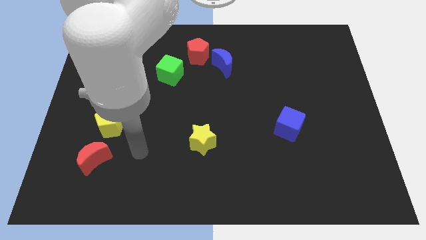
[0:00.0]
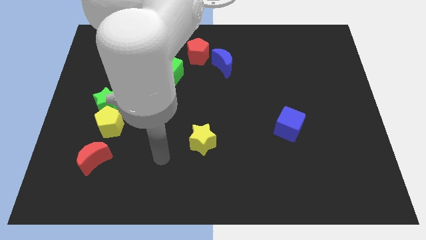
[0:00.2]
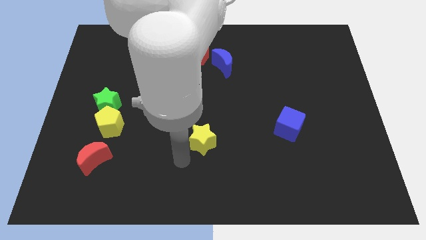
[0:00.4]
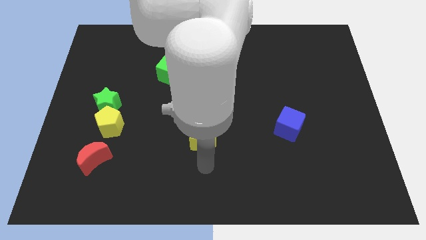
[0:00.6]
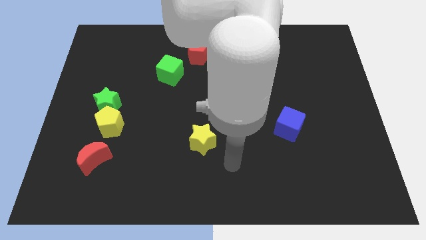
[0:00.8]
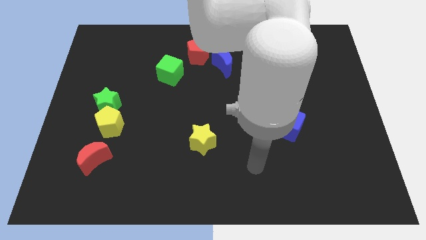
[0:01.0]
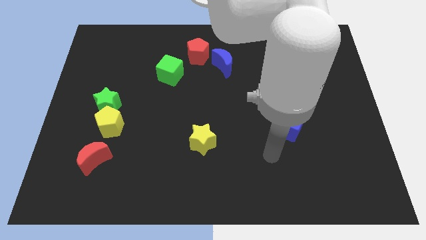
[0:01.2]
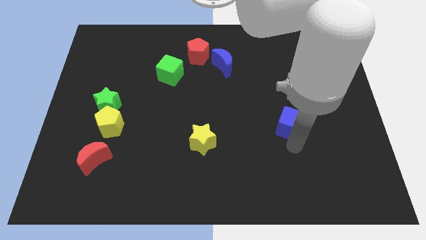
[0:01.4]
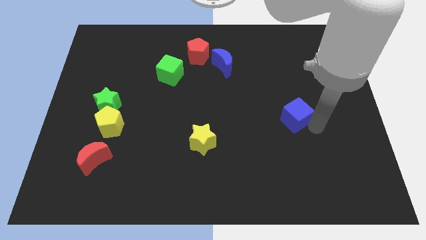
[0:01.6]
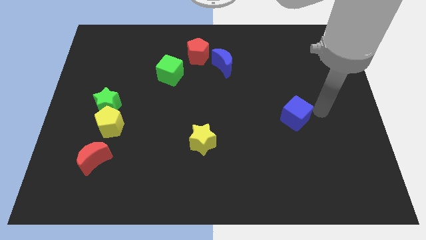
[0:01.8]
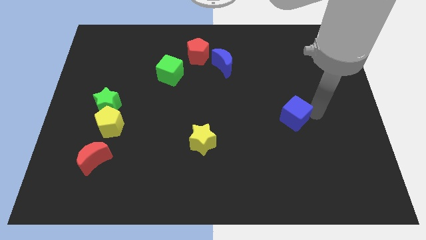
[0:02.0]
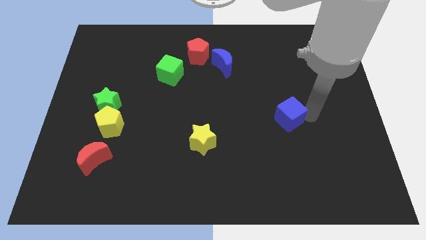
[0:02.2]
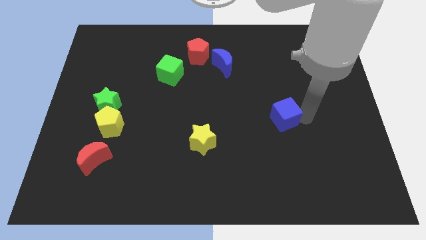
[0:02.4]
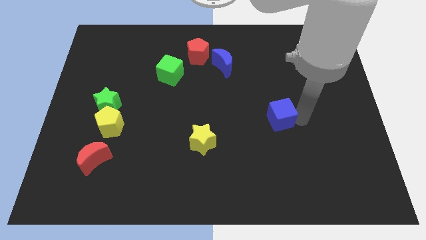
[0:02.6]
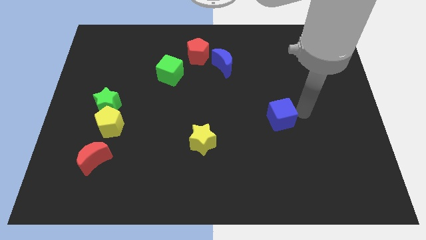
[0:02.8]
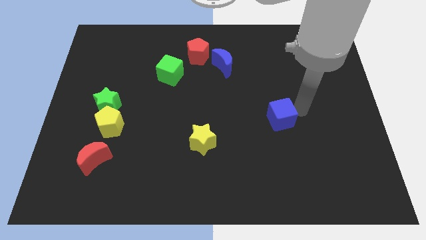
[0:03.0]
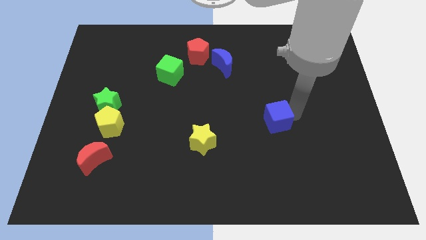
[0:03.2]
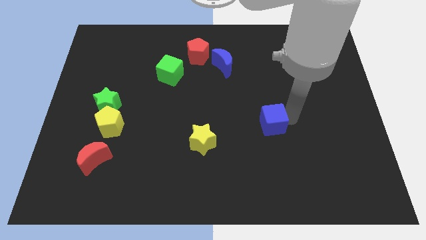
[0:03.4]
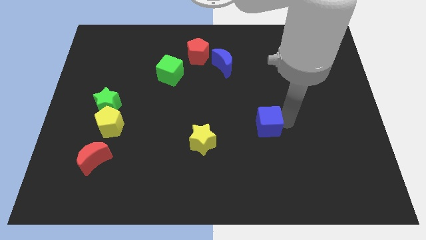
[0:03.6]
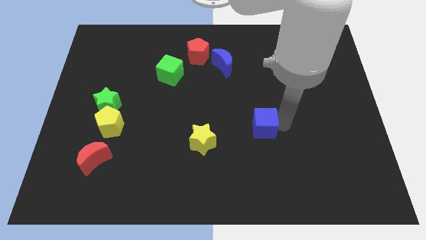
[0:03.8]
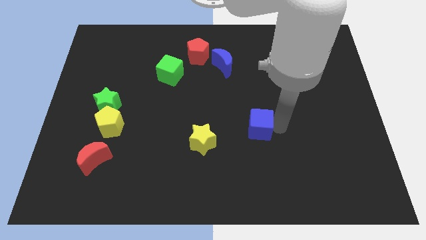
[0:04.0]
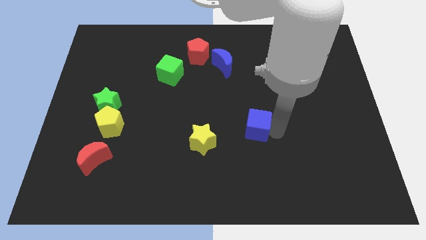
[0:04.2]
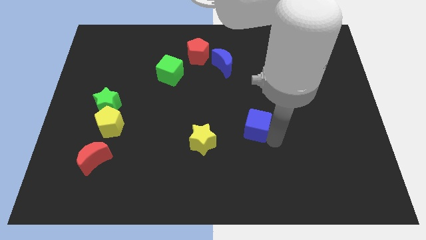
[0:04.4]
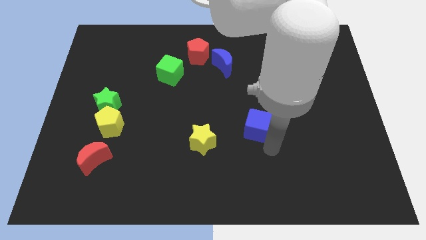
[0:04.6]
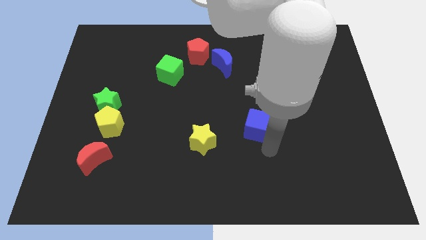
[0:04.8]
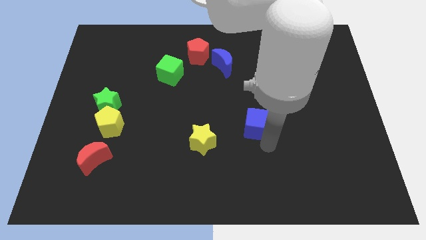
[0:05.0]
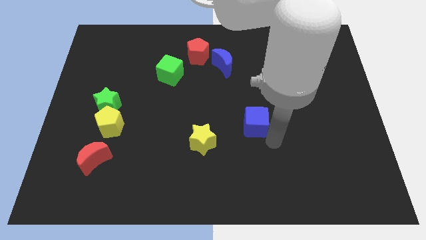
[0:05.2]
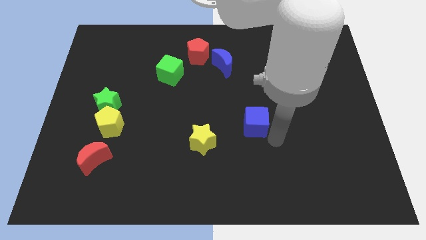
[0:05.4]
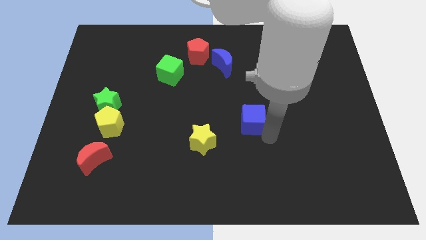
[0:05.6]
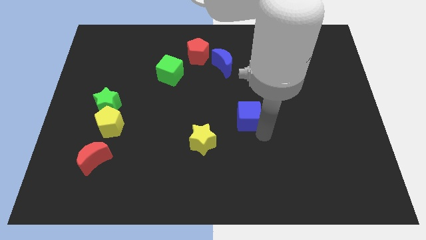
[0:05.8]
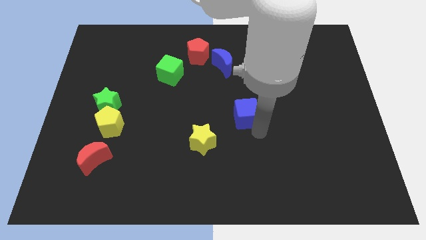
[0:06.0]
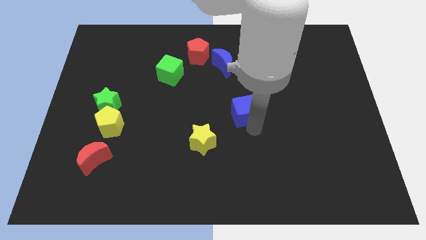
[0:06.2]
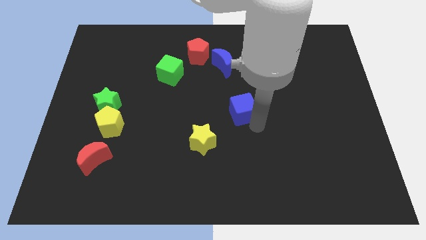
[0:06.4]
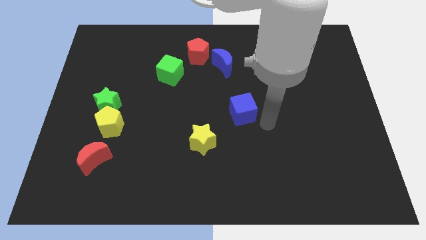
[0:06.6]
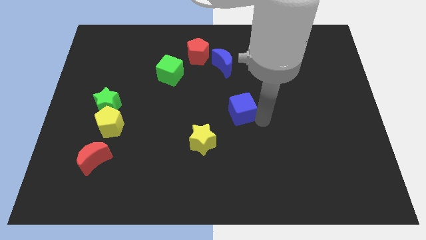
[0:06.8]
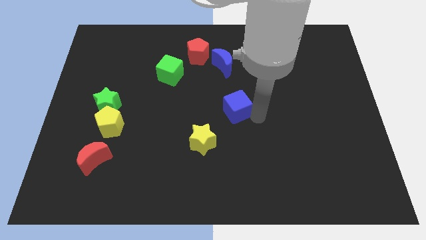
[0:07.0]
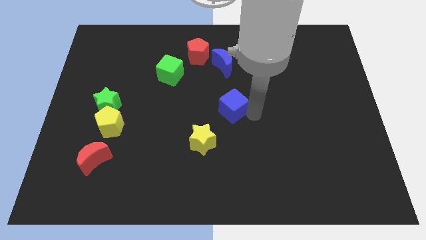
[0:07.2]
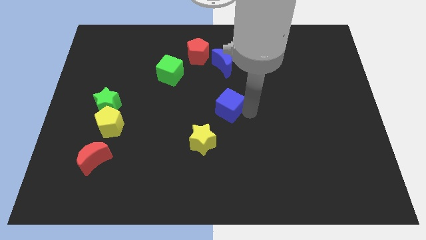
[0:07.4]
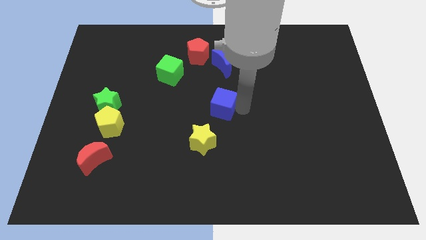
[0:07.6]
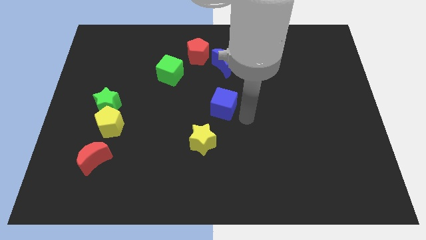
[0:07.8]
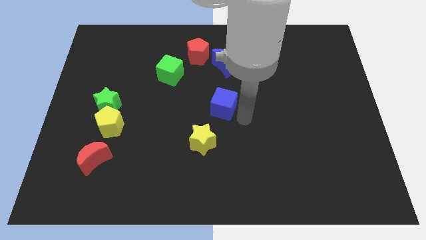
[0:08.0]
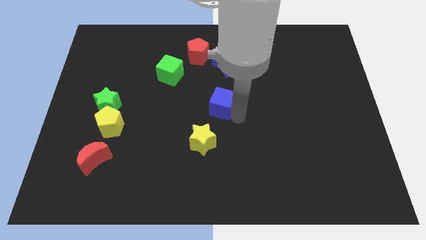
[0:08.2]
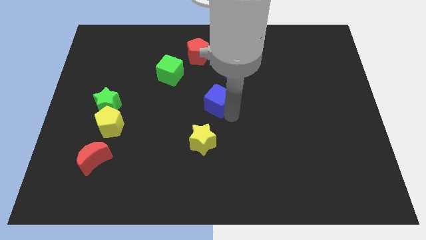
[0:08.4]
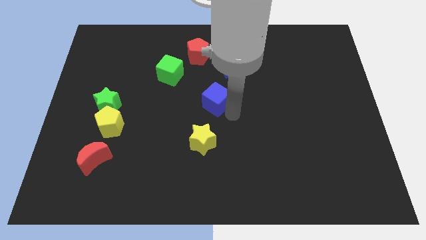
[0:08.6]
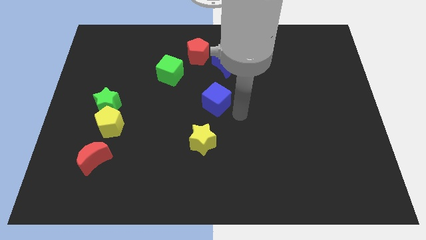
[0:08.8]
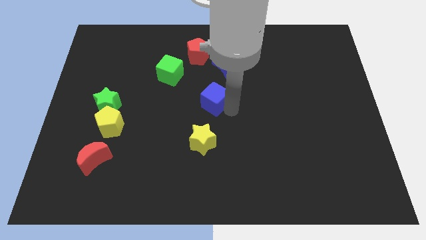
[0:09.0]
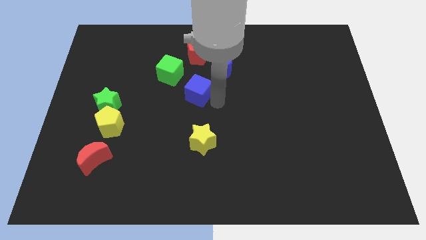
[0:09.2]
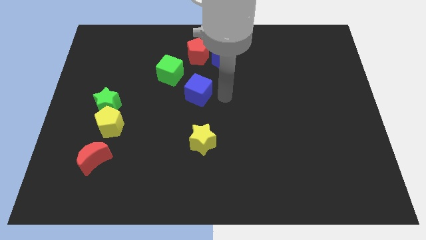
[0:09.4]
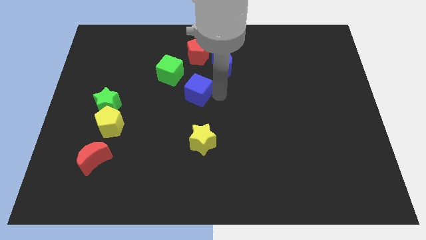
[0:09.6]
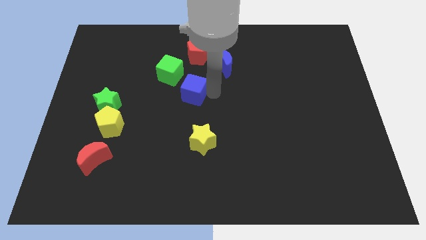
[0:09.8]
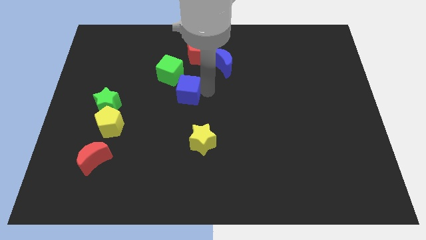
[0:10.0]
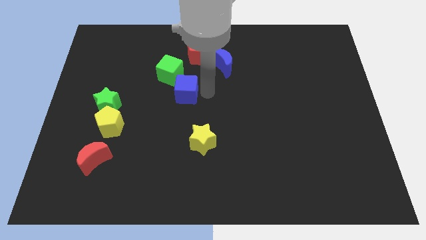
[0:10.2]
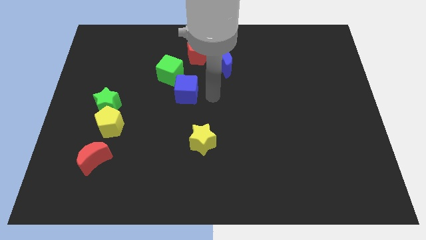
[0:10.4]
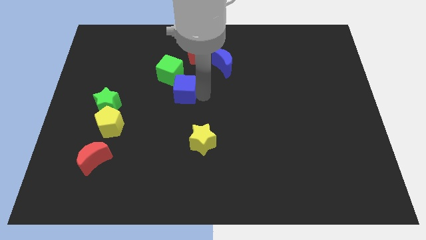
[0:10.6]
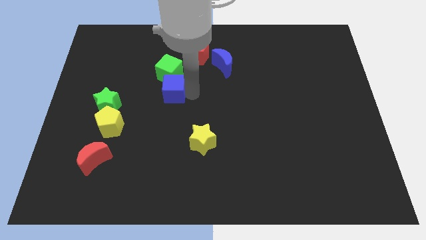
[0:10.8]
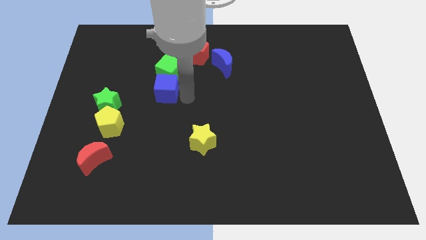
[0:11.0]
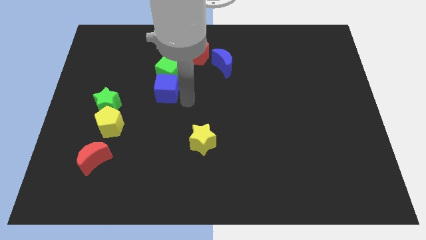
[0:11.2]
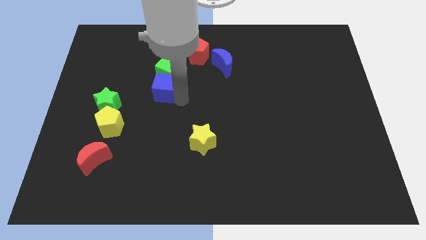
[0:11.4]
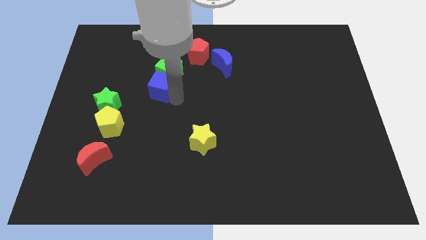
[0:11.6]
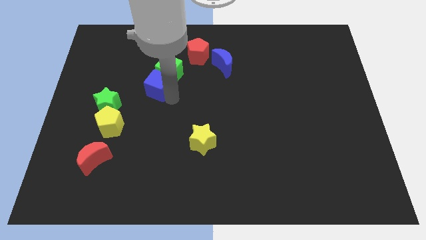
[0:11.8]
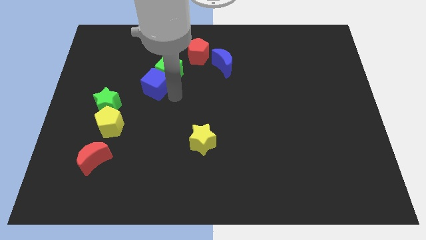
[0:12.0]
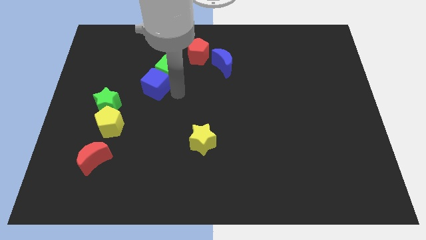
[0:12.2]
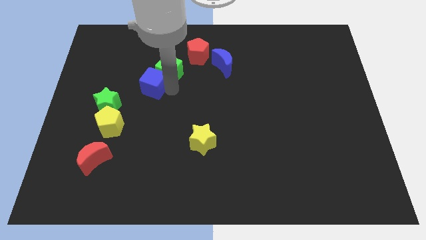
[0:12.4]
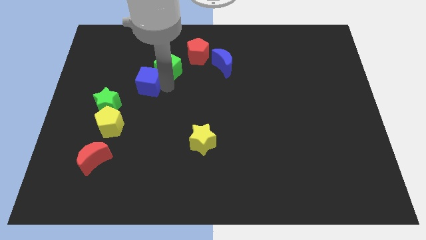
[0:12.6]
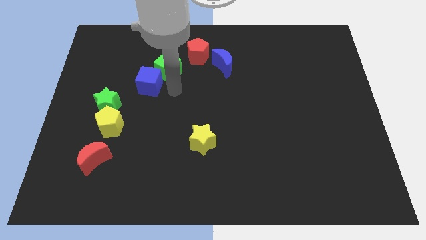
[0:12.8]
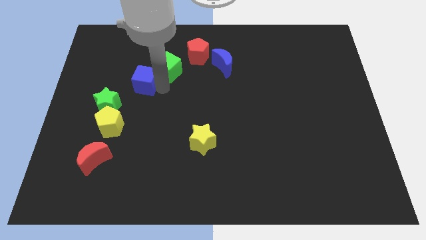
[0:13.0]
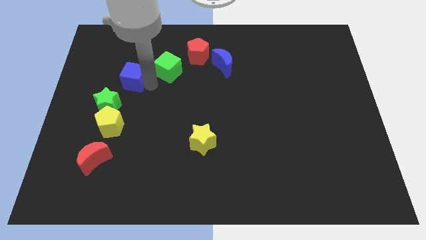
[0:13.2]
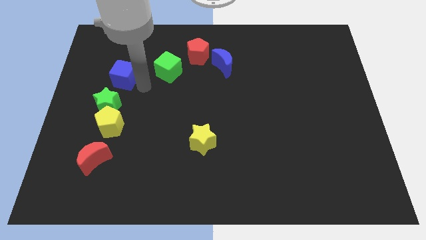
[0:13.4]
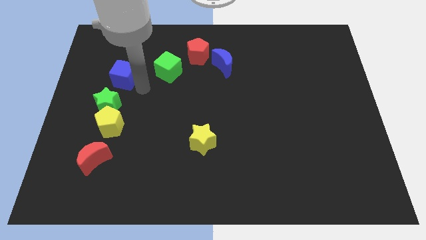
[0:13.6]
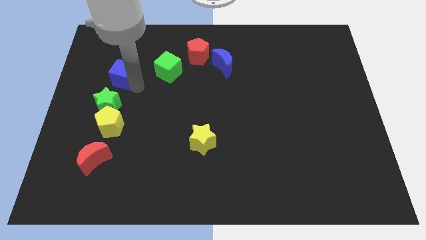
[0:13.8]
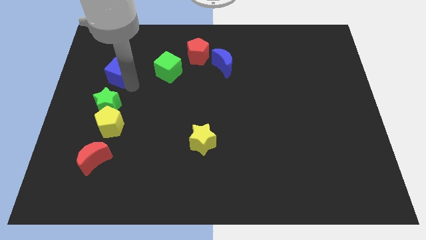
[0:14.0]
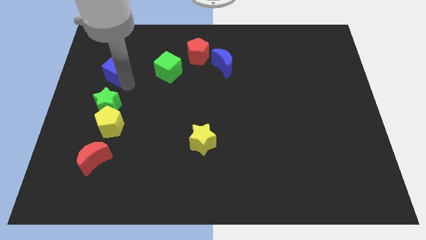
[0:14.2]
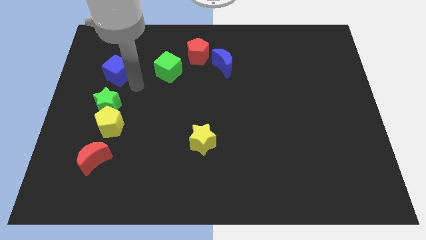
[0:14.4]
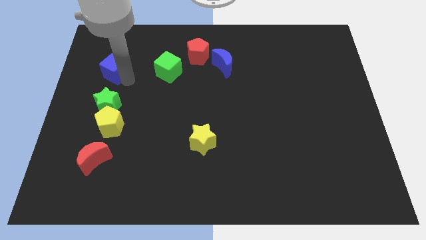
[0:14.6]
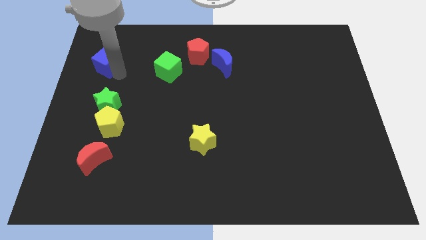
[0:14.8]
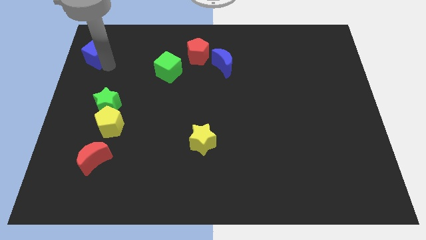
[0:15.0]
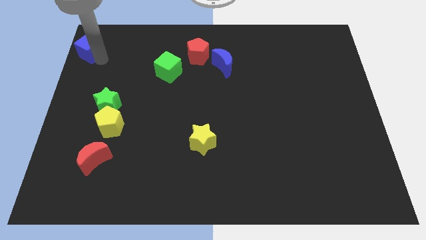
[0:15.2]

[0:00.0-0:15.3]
push the blue cube to the top left of the board

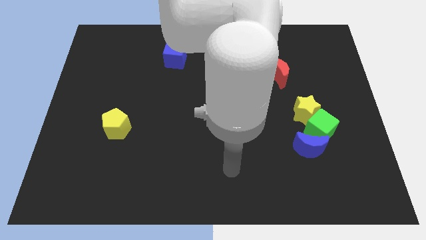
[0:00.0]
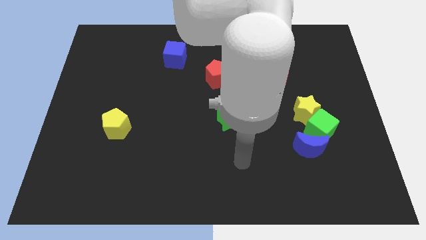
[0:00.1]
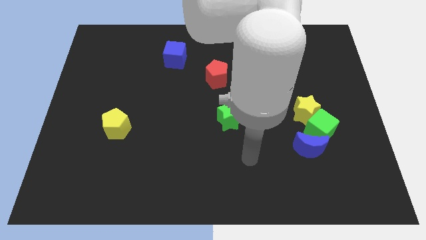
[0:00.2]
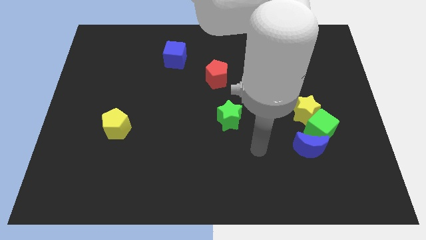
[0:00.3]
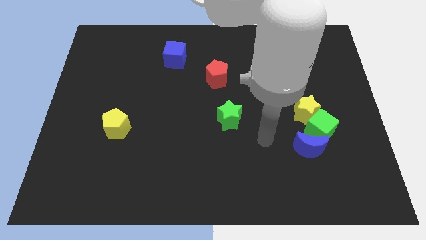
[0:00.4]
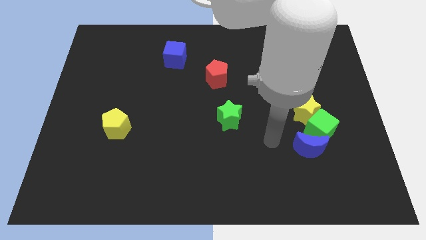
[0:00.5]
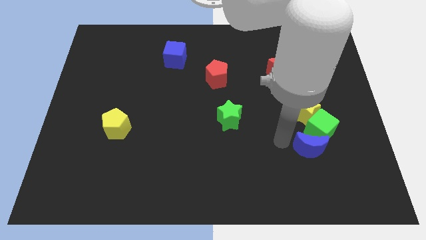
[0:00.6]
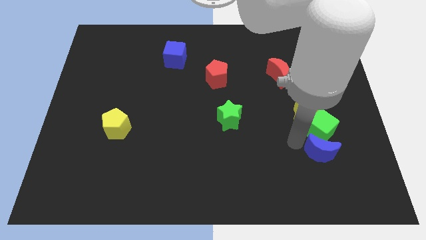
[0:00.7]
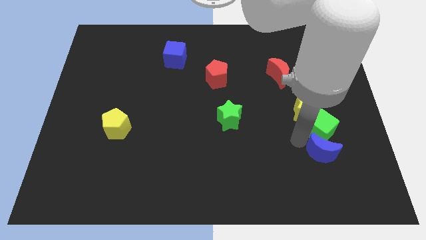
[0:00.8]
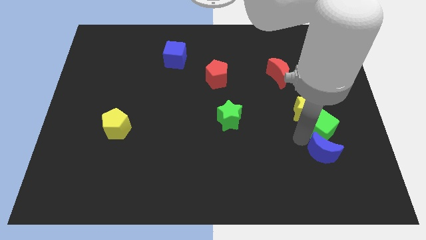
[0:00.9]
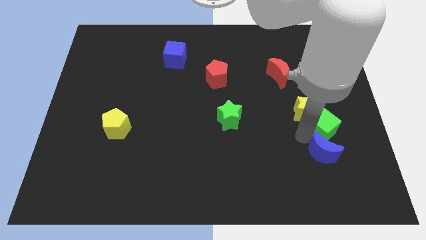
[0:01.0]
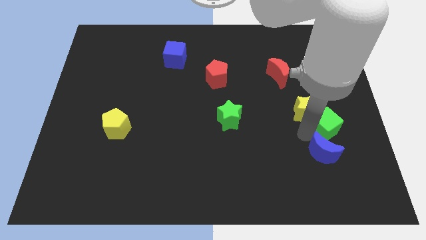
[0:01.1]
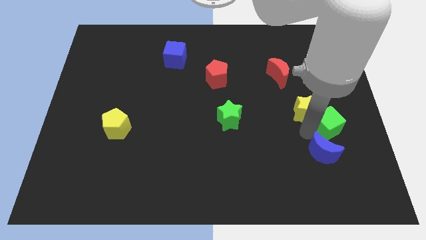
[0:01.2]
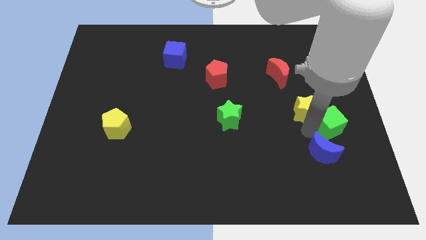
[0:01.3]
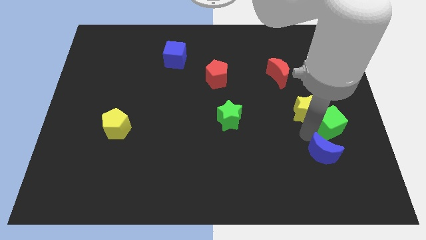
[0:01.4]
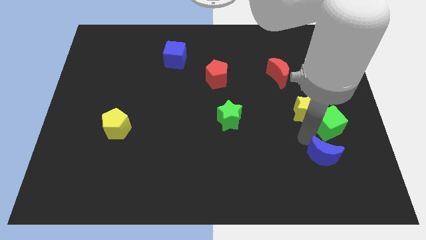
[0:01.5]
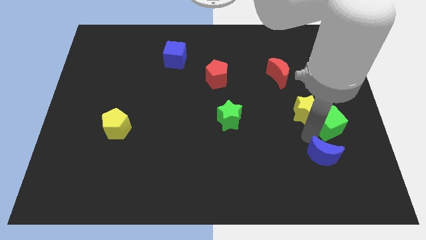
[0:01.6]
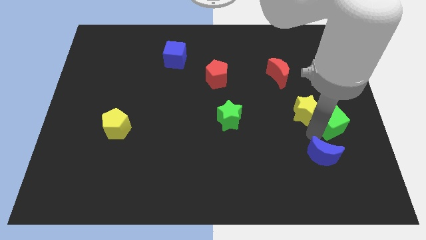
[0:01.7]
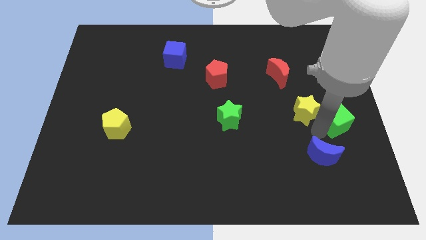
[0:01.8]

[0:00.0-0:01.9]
put the green cube to the center right
